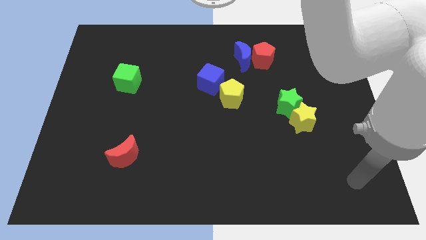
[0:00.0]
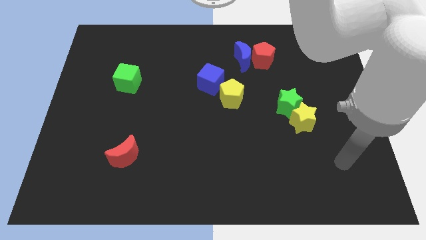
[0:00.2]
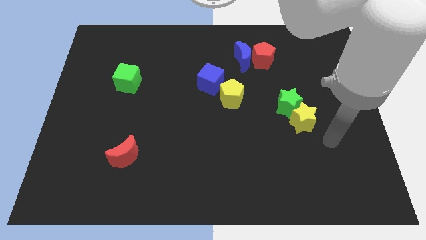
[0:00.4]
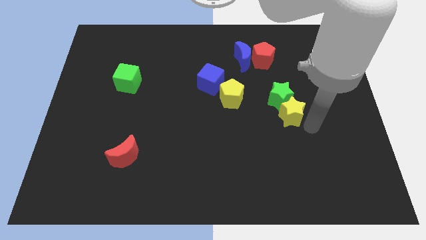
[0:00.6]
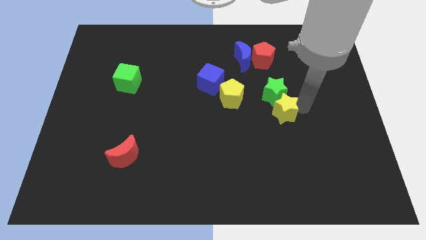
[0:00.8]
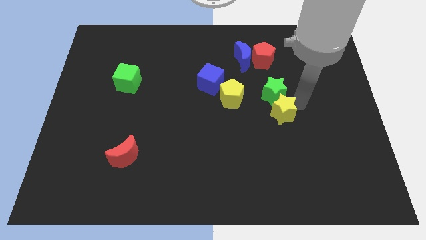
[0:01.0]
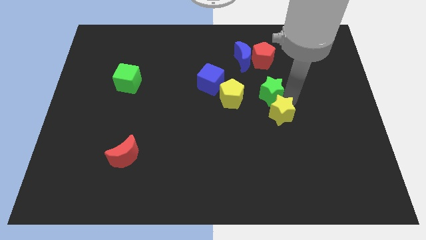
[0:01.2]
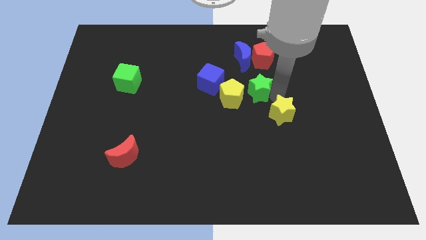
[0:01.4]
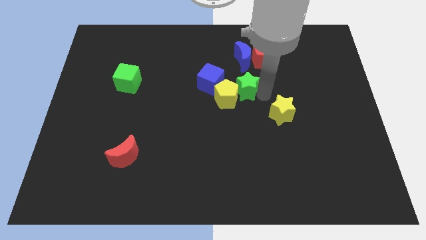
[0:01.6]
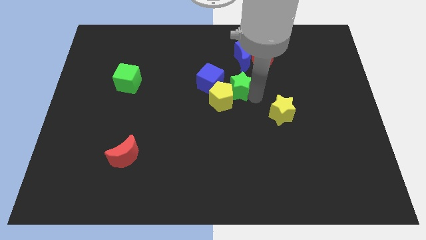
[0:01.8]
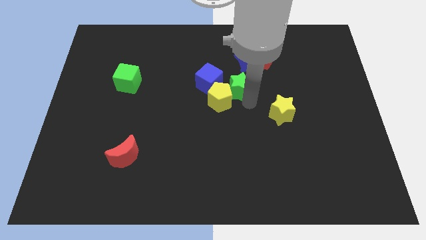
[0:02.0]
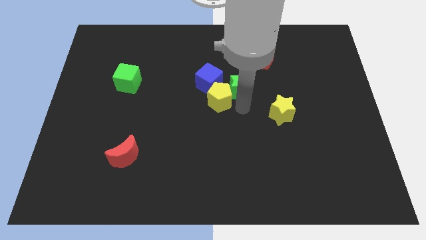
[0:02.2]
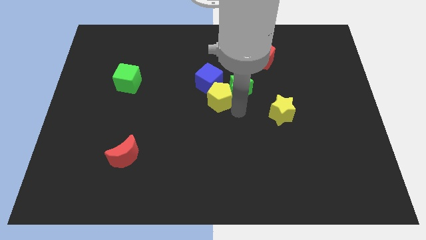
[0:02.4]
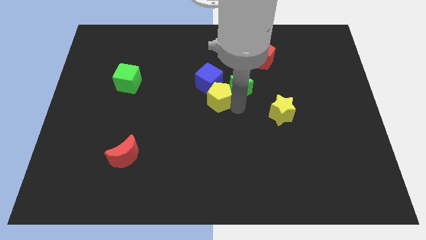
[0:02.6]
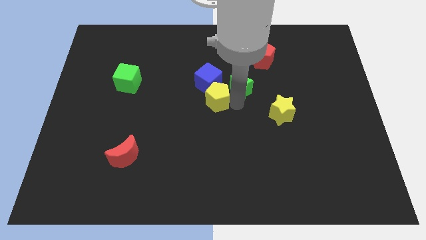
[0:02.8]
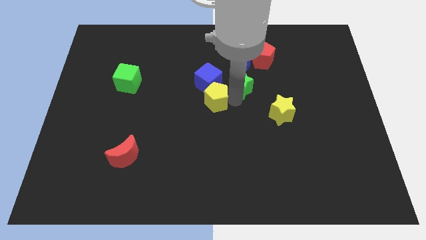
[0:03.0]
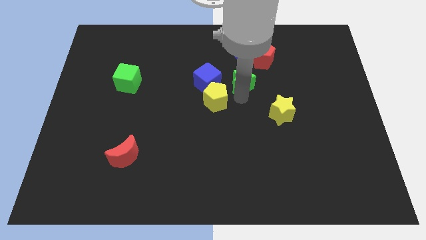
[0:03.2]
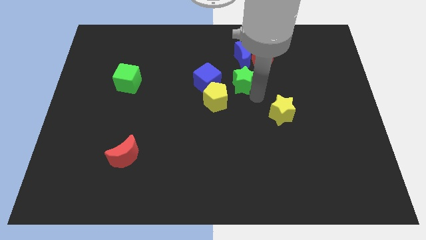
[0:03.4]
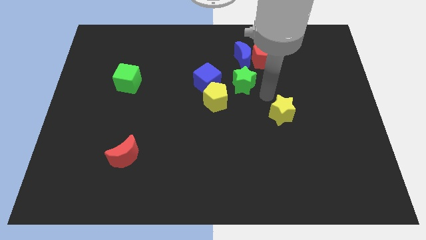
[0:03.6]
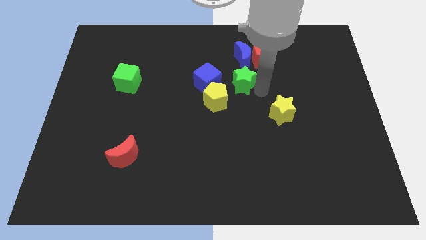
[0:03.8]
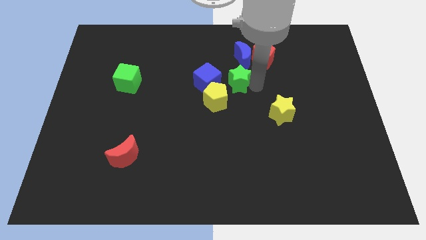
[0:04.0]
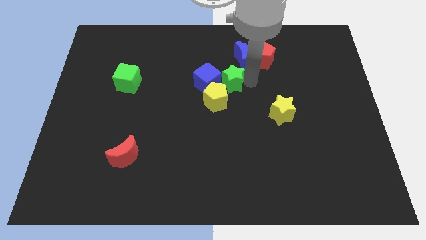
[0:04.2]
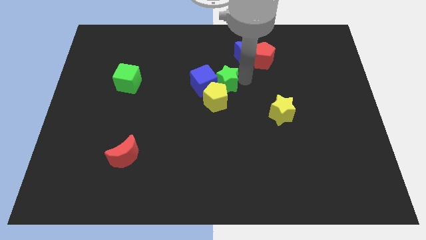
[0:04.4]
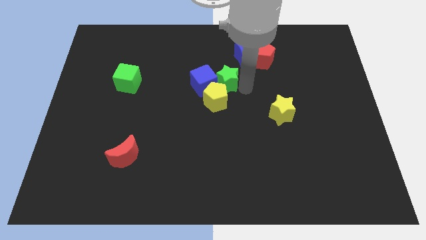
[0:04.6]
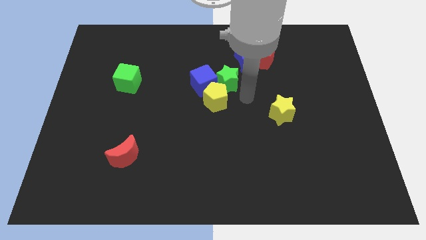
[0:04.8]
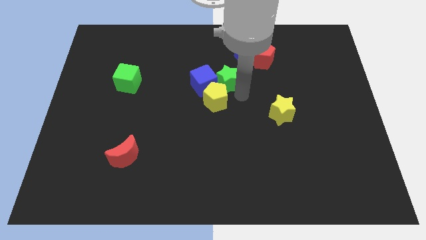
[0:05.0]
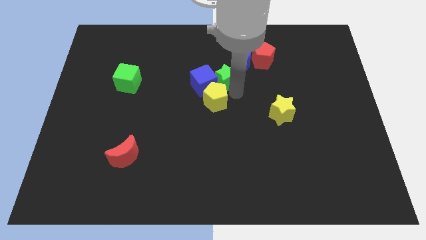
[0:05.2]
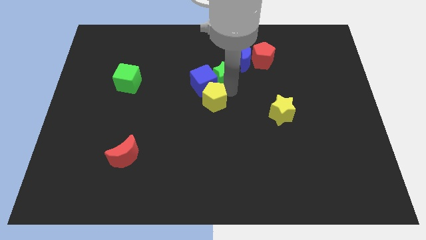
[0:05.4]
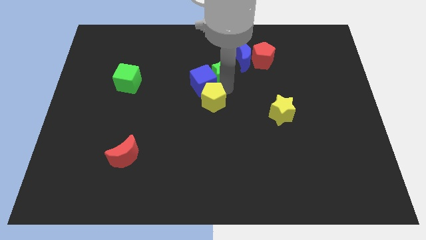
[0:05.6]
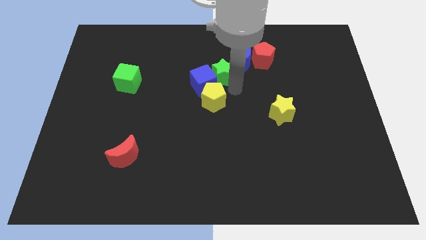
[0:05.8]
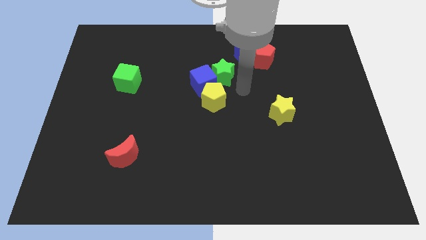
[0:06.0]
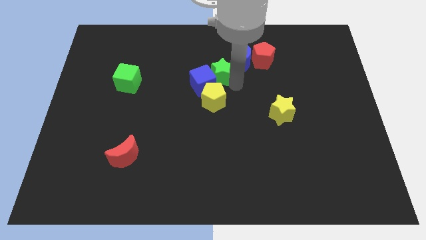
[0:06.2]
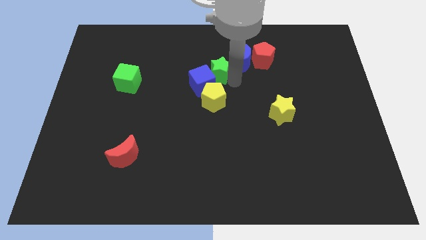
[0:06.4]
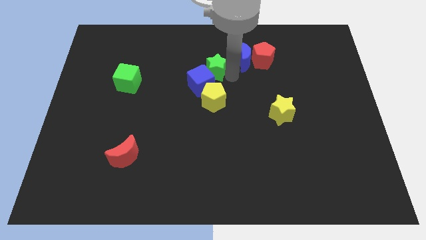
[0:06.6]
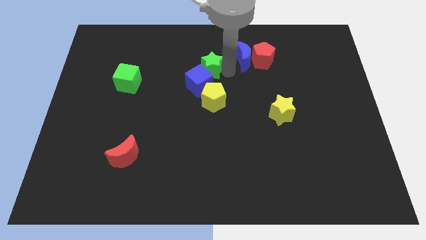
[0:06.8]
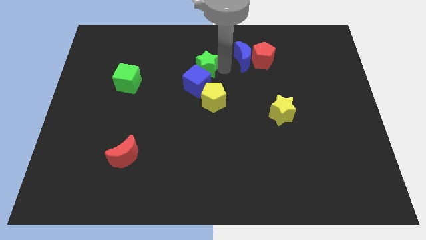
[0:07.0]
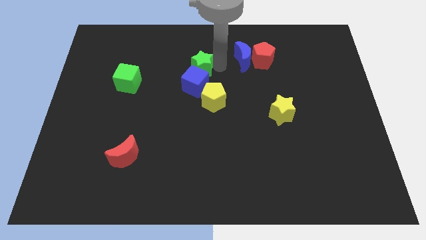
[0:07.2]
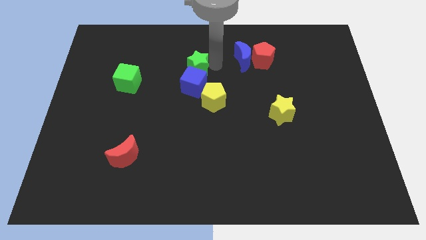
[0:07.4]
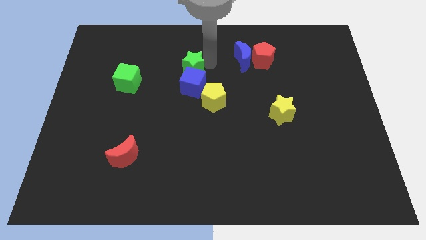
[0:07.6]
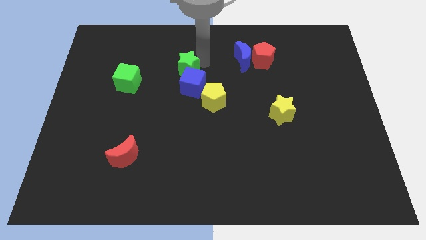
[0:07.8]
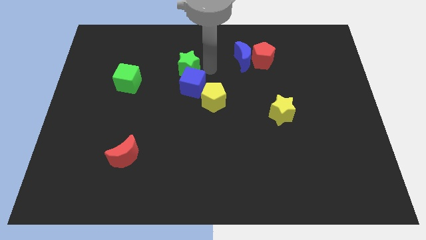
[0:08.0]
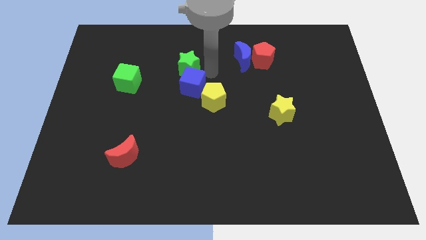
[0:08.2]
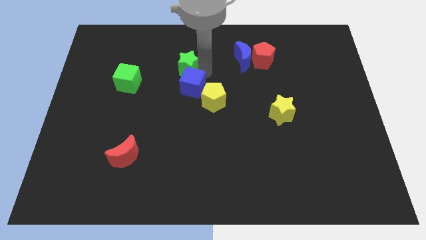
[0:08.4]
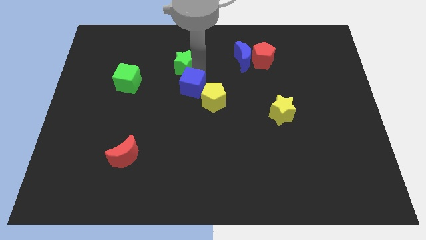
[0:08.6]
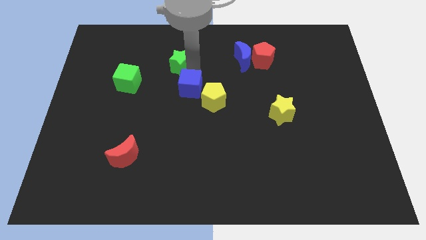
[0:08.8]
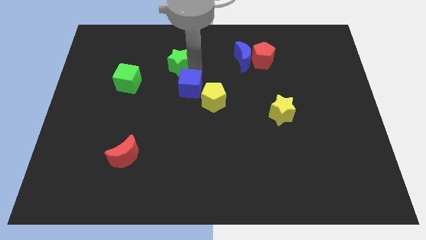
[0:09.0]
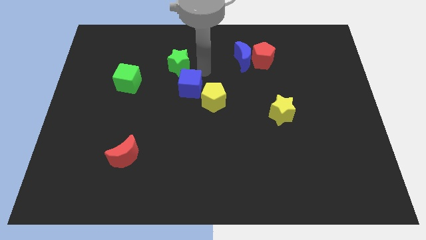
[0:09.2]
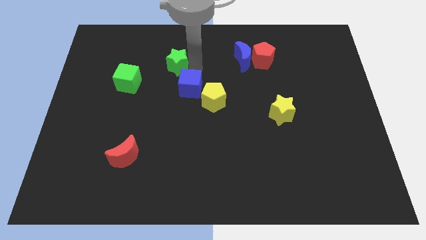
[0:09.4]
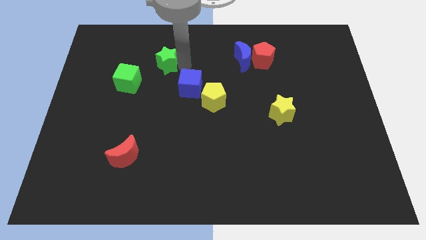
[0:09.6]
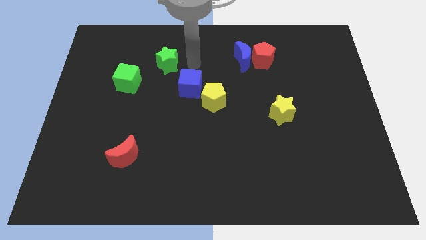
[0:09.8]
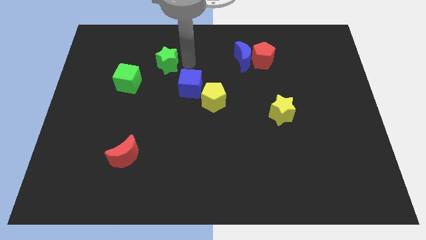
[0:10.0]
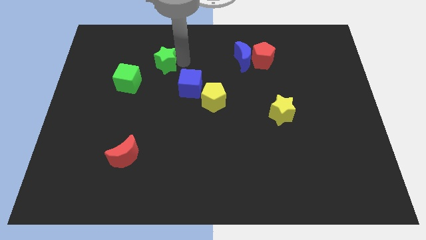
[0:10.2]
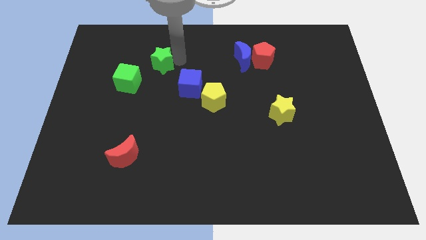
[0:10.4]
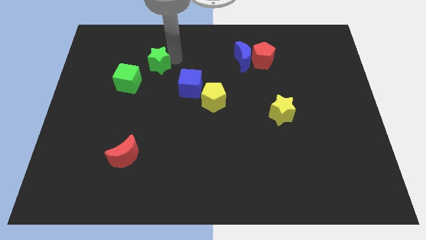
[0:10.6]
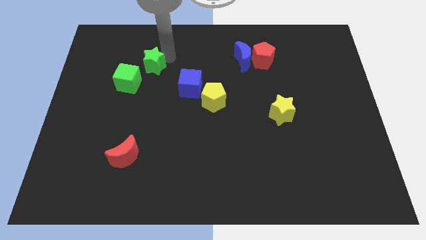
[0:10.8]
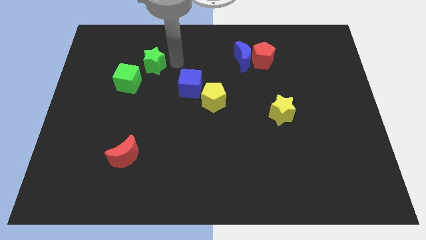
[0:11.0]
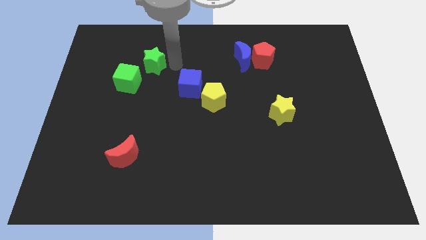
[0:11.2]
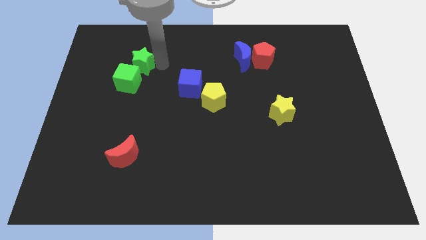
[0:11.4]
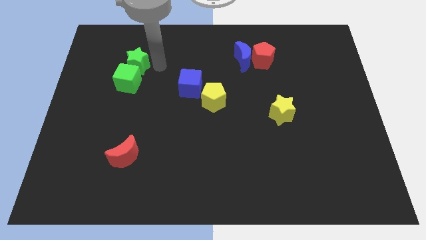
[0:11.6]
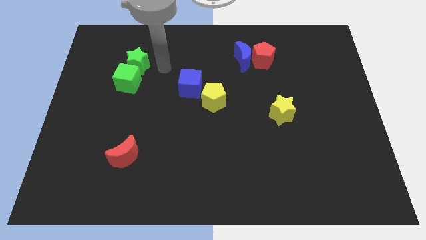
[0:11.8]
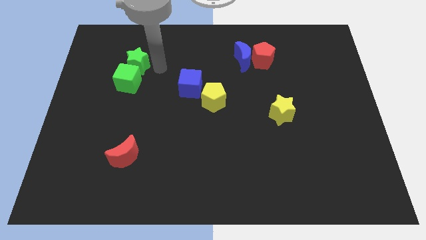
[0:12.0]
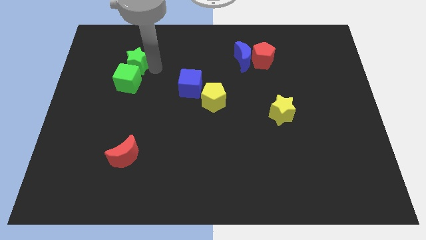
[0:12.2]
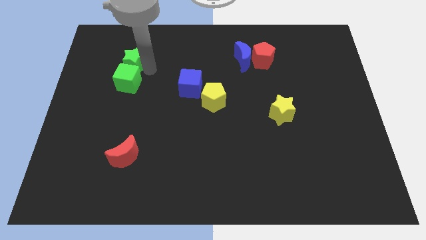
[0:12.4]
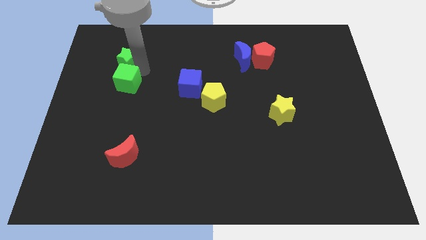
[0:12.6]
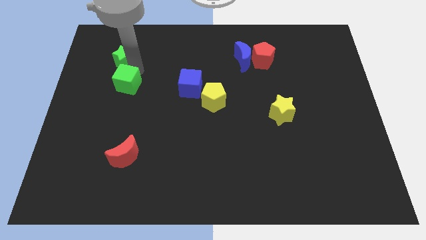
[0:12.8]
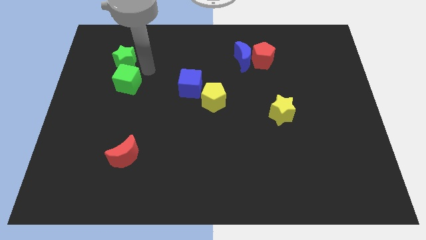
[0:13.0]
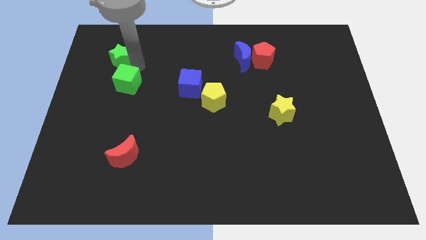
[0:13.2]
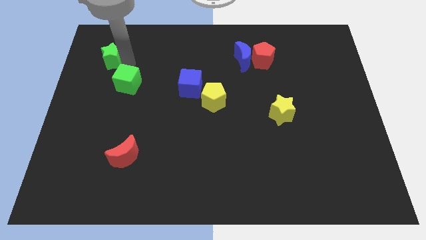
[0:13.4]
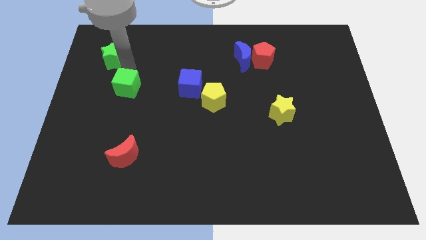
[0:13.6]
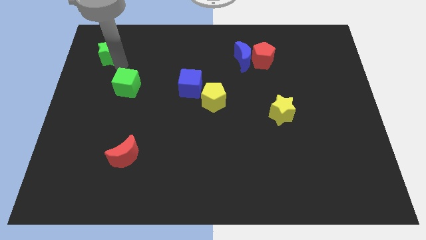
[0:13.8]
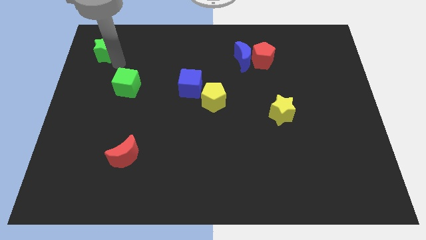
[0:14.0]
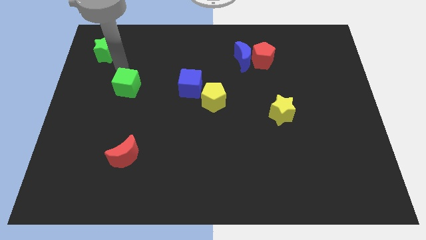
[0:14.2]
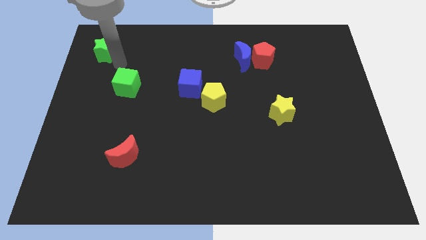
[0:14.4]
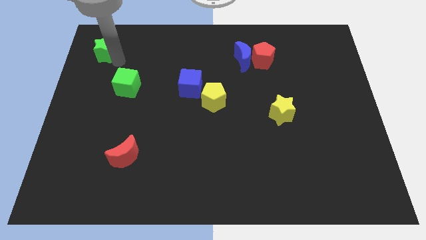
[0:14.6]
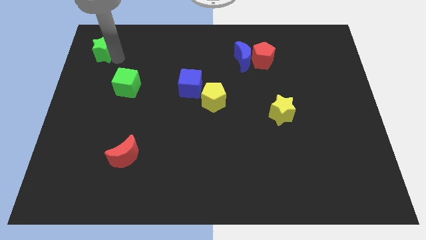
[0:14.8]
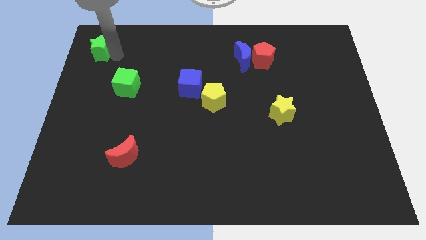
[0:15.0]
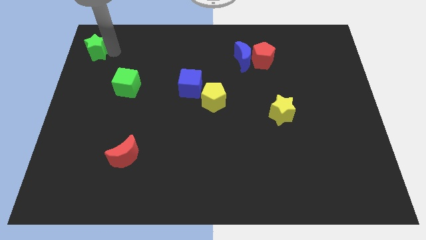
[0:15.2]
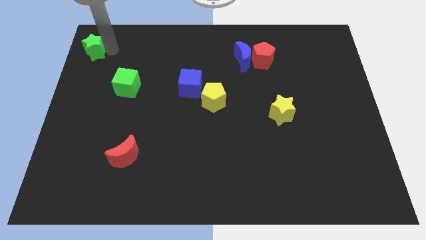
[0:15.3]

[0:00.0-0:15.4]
slide the green star to the top left corner
